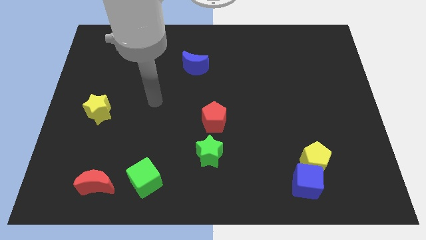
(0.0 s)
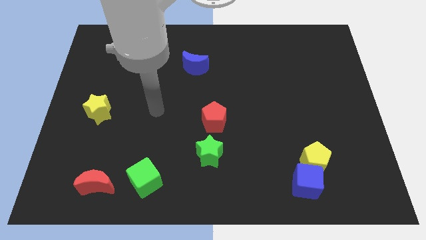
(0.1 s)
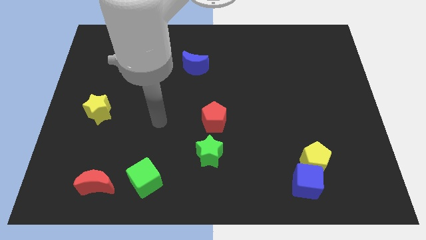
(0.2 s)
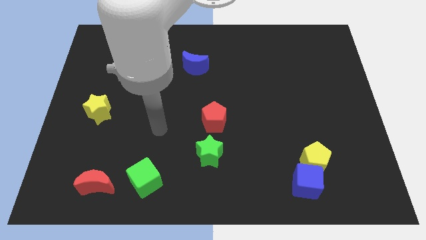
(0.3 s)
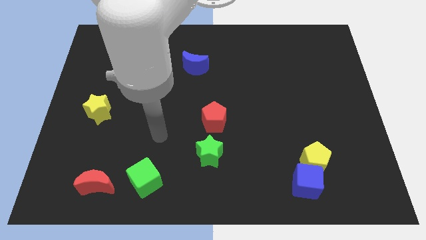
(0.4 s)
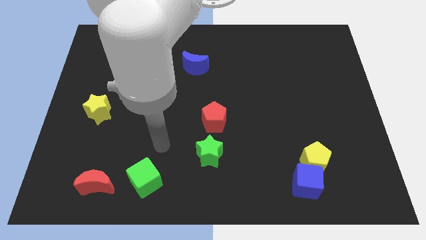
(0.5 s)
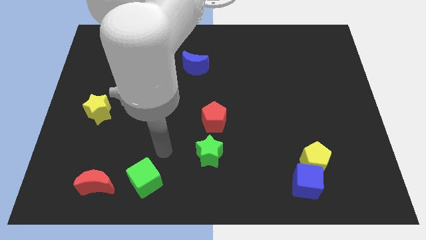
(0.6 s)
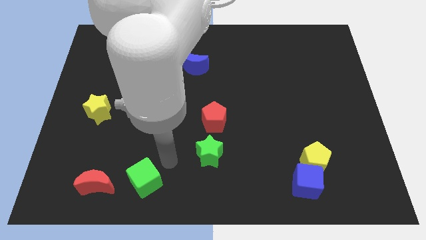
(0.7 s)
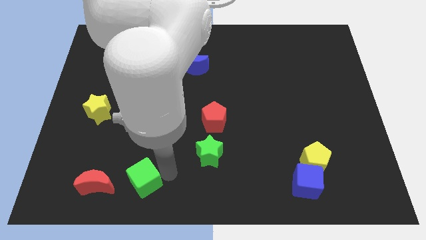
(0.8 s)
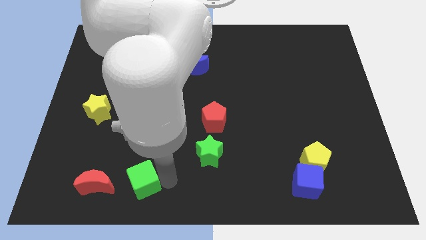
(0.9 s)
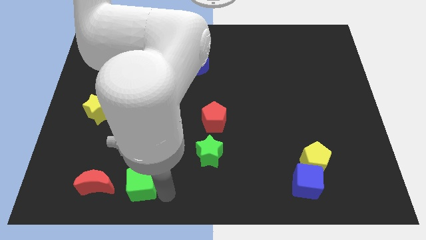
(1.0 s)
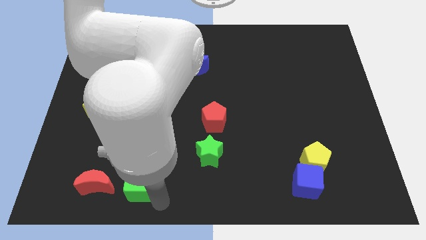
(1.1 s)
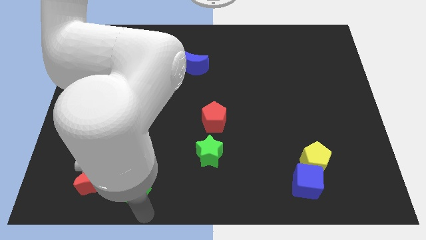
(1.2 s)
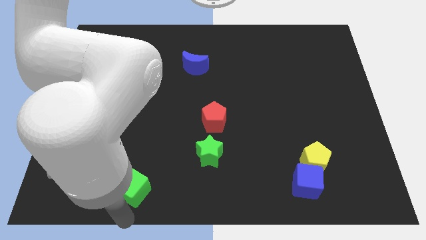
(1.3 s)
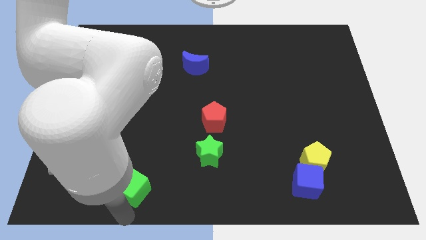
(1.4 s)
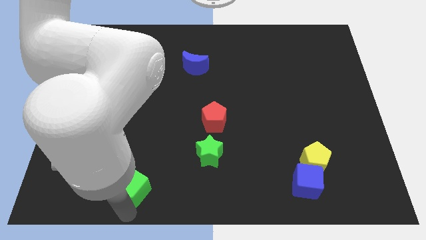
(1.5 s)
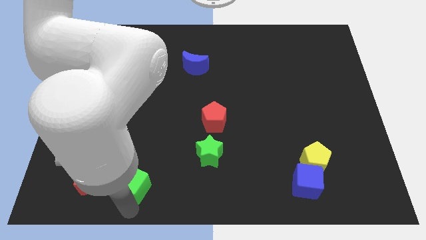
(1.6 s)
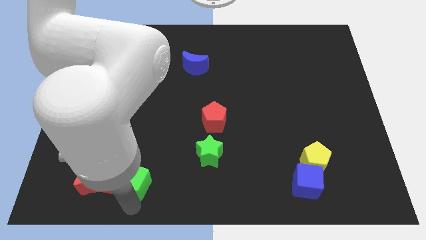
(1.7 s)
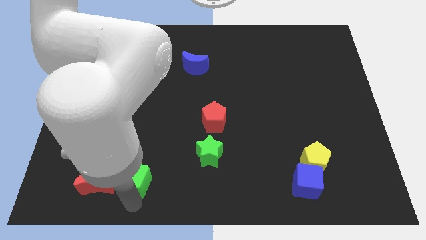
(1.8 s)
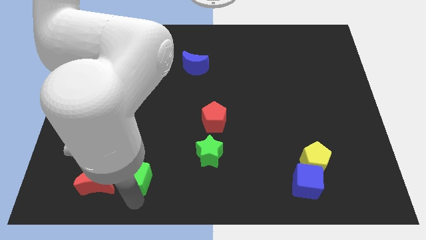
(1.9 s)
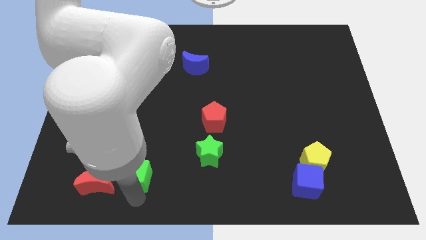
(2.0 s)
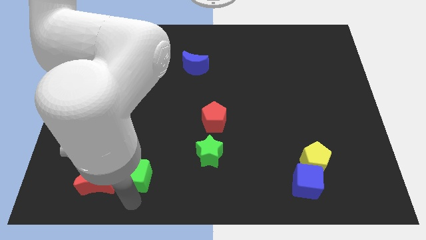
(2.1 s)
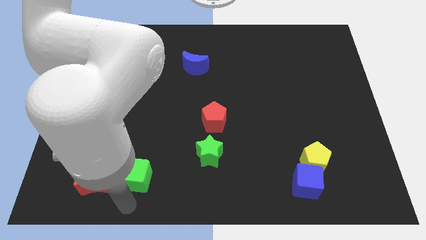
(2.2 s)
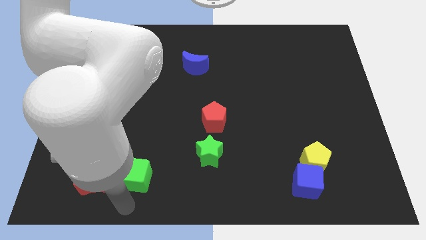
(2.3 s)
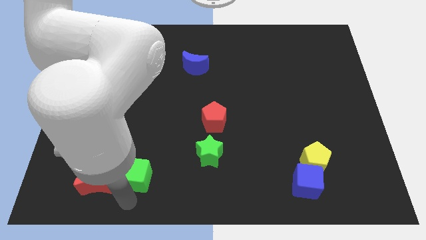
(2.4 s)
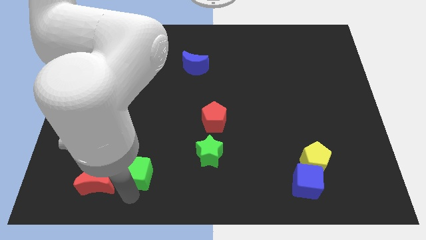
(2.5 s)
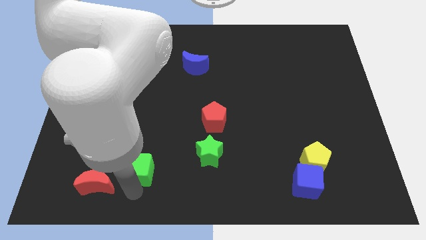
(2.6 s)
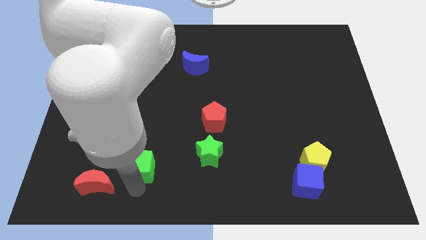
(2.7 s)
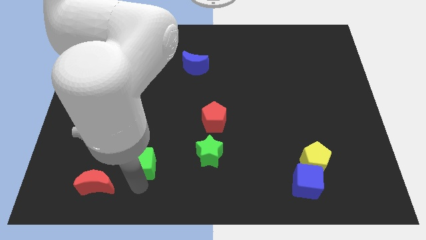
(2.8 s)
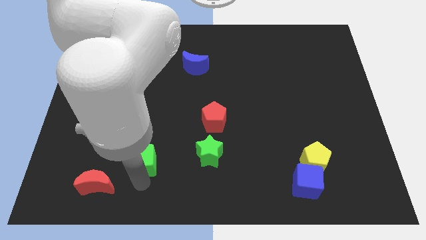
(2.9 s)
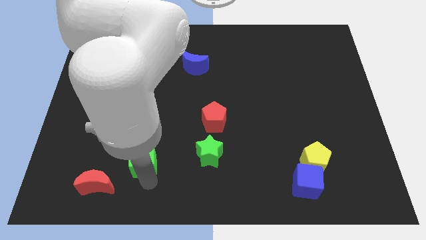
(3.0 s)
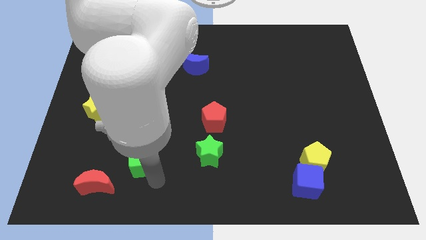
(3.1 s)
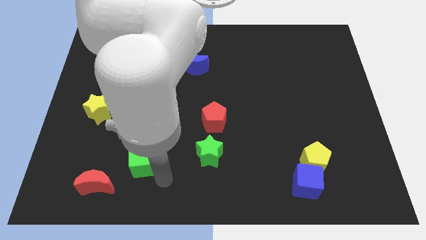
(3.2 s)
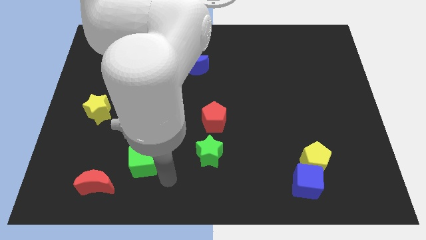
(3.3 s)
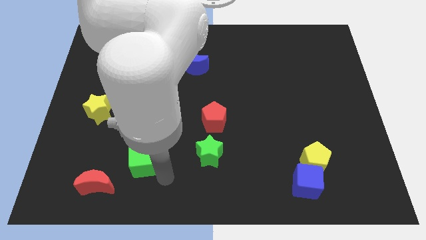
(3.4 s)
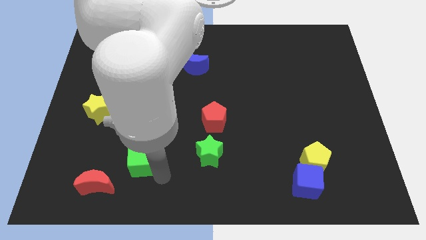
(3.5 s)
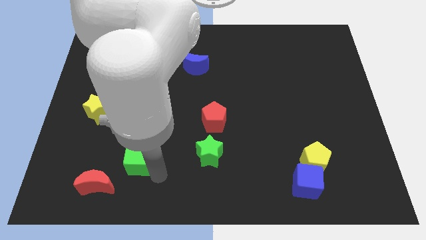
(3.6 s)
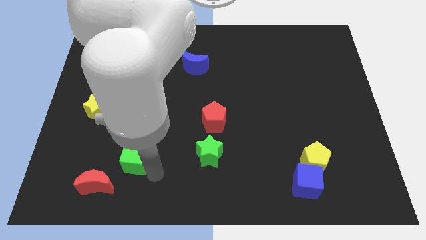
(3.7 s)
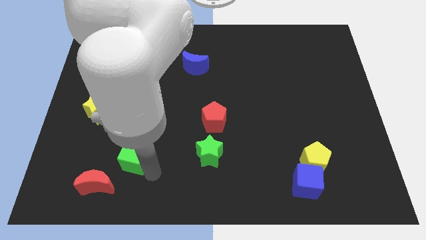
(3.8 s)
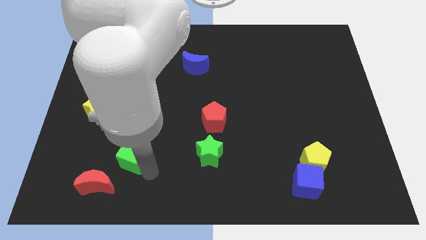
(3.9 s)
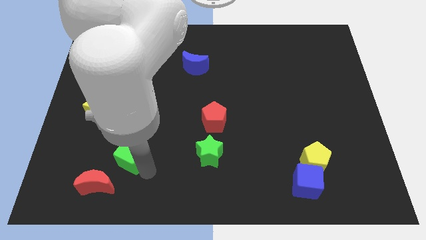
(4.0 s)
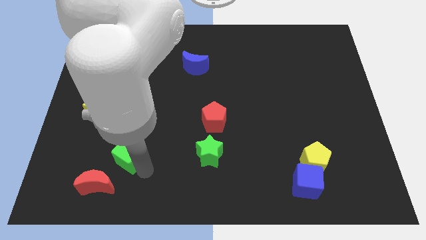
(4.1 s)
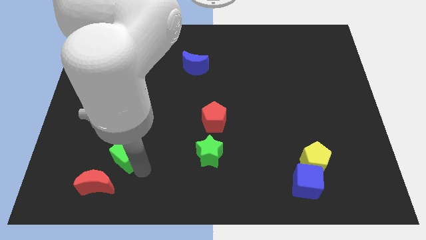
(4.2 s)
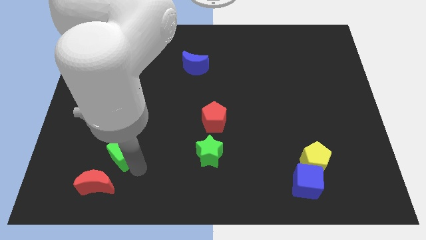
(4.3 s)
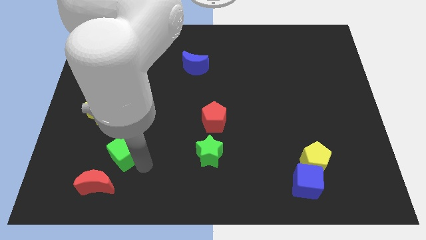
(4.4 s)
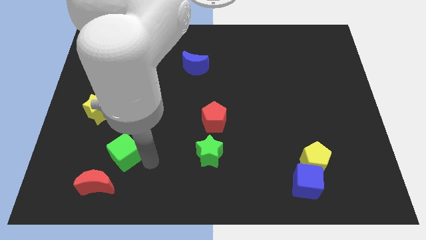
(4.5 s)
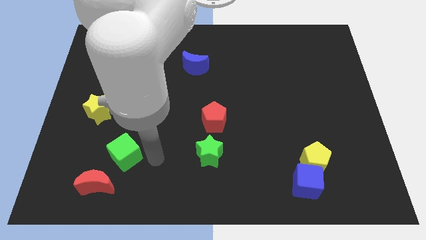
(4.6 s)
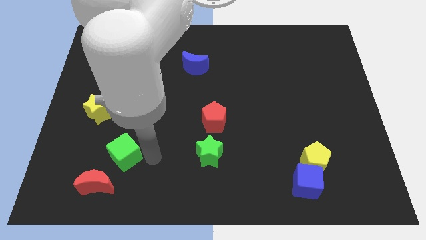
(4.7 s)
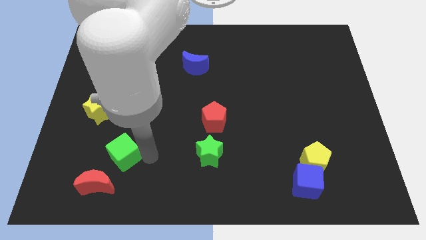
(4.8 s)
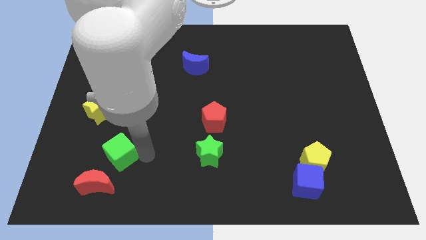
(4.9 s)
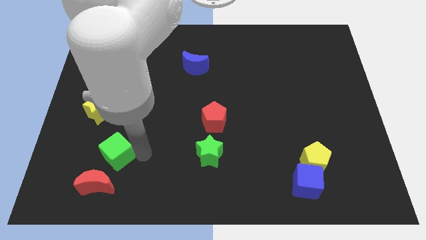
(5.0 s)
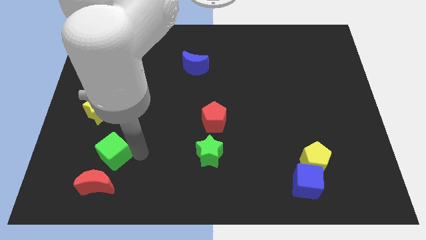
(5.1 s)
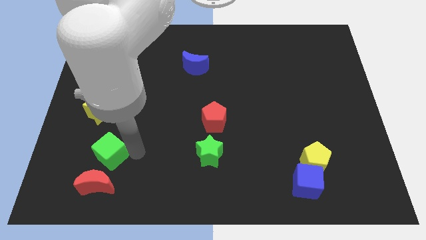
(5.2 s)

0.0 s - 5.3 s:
put the green cube to the bottom of the yellow star

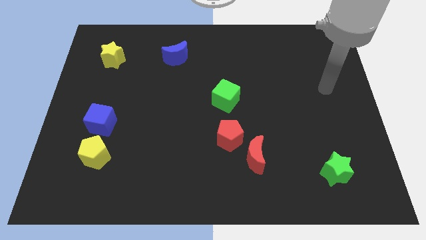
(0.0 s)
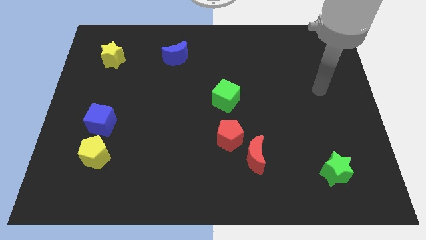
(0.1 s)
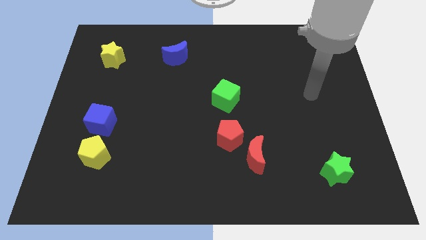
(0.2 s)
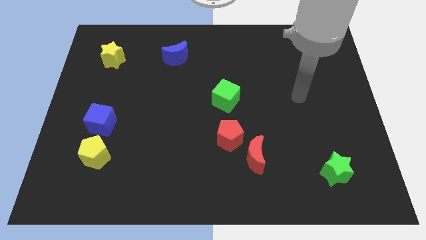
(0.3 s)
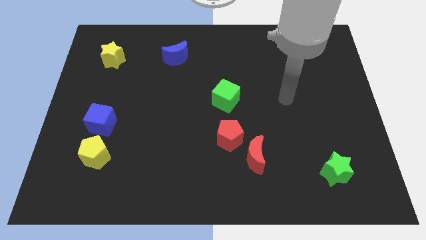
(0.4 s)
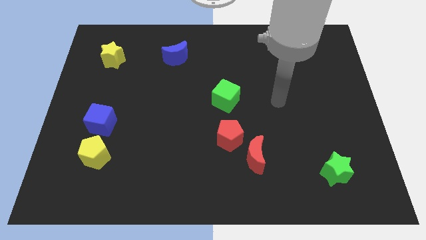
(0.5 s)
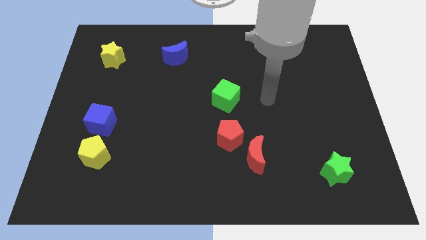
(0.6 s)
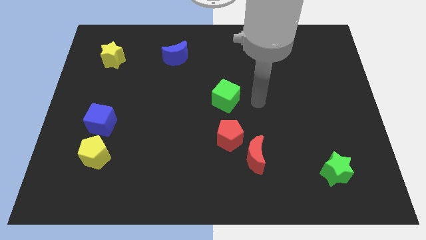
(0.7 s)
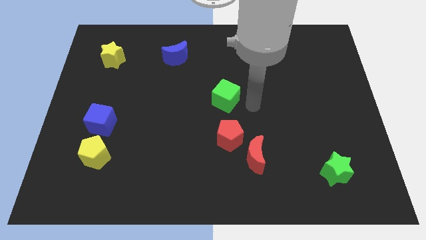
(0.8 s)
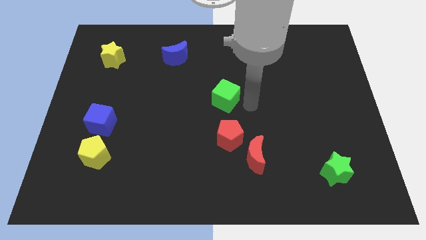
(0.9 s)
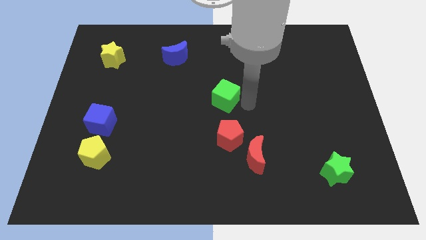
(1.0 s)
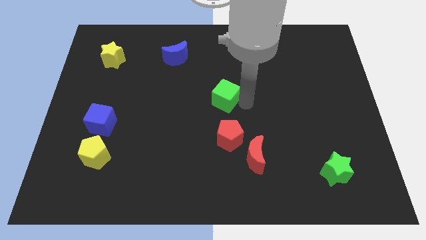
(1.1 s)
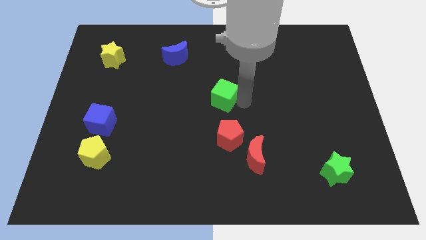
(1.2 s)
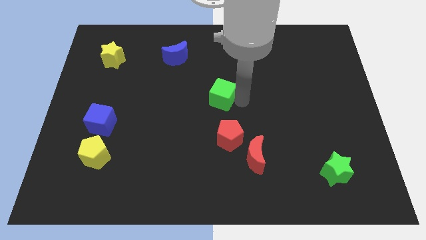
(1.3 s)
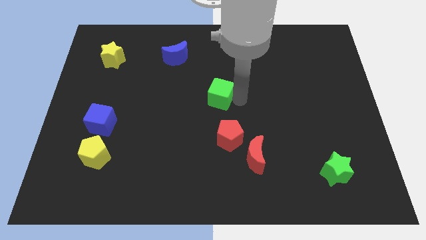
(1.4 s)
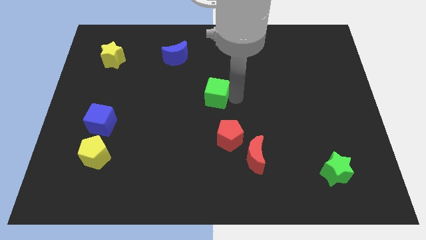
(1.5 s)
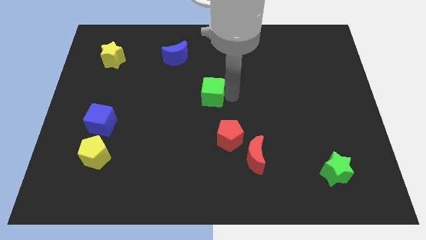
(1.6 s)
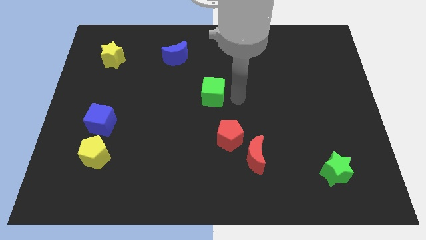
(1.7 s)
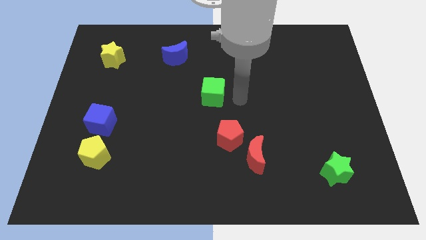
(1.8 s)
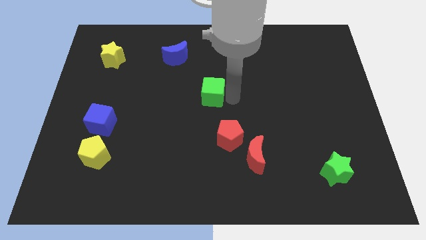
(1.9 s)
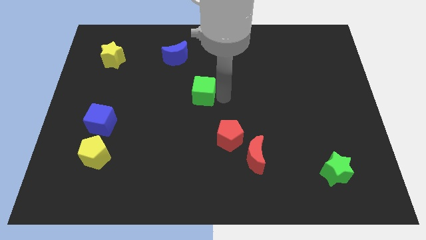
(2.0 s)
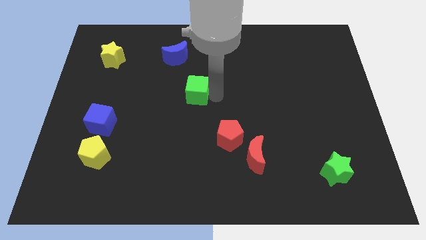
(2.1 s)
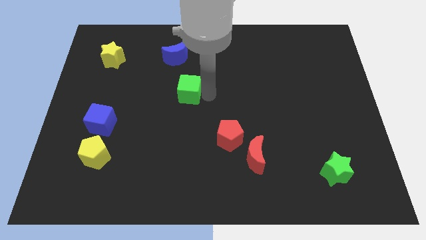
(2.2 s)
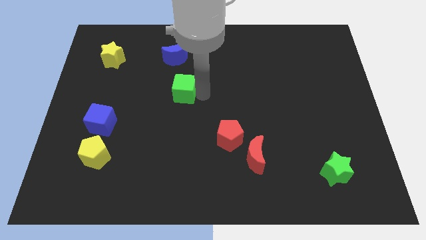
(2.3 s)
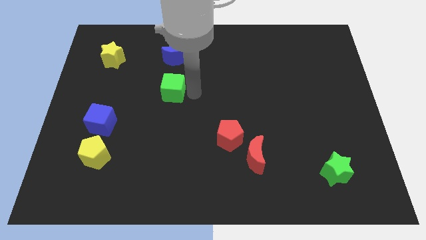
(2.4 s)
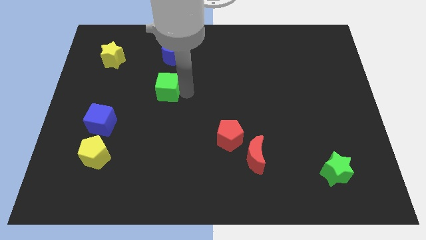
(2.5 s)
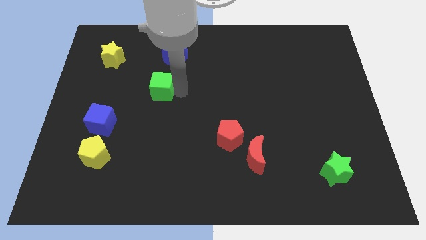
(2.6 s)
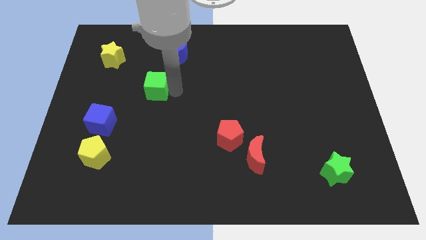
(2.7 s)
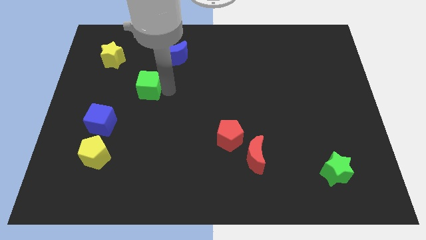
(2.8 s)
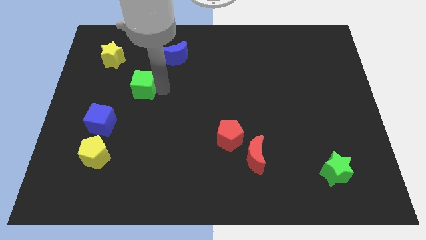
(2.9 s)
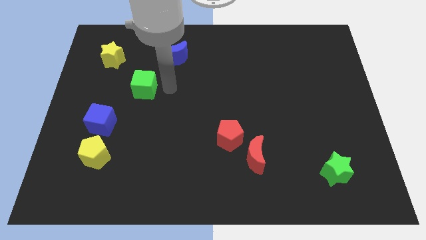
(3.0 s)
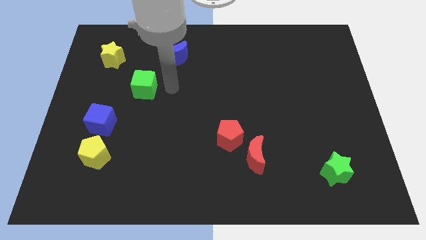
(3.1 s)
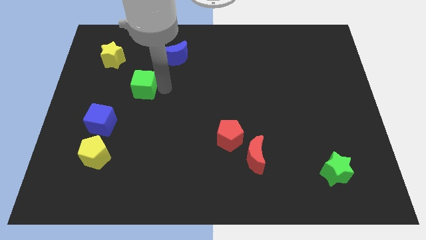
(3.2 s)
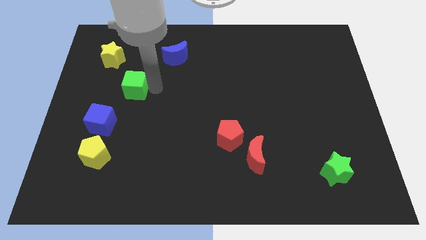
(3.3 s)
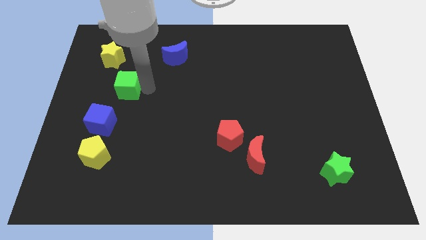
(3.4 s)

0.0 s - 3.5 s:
move the green cube above the blue cube
